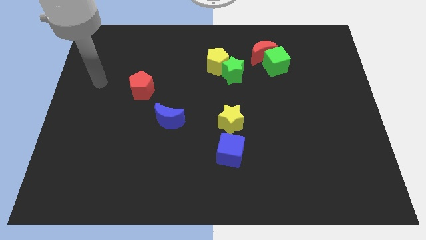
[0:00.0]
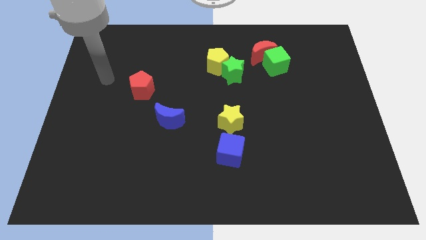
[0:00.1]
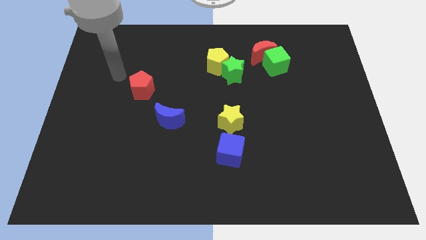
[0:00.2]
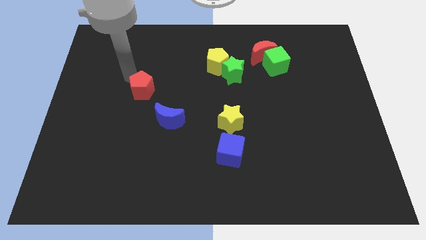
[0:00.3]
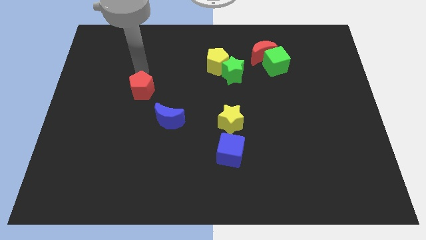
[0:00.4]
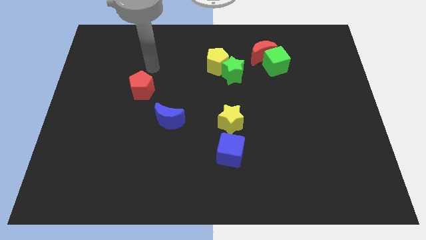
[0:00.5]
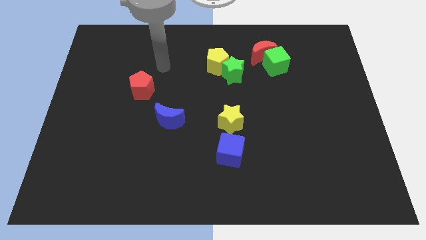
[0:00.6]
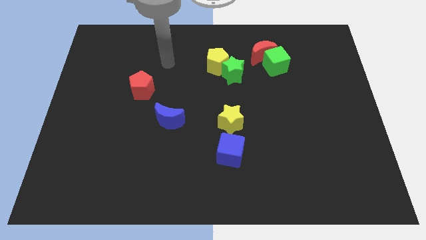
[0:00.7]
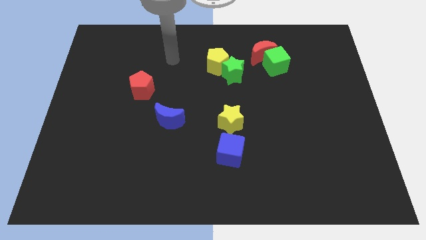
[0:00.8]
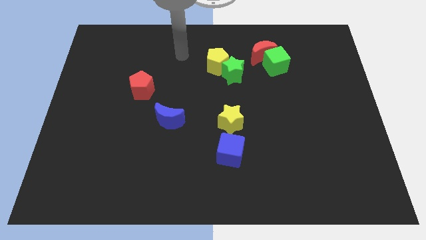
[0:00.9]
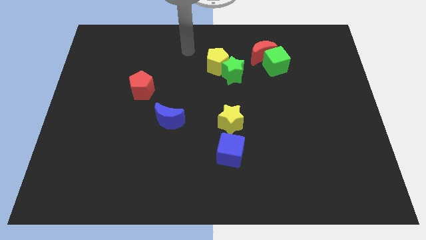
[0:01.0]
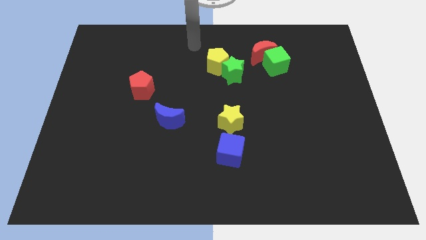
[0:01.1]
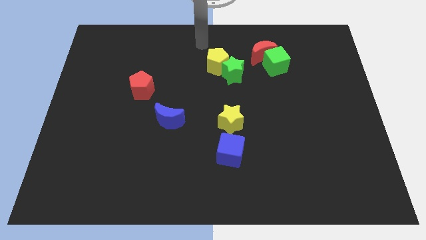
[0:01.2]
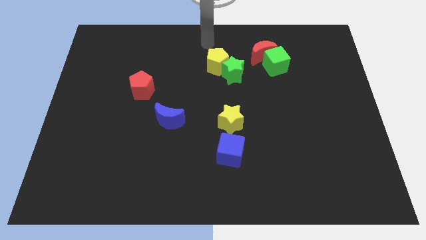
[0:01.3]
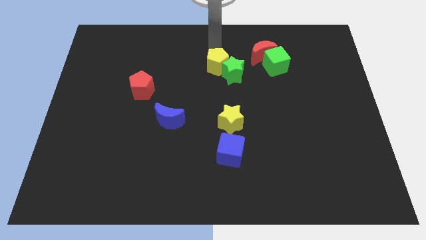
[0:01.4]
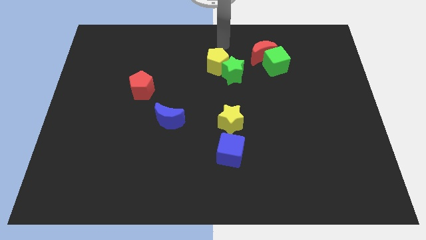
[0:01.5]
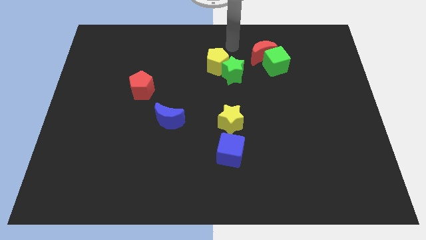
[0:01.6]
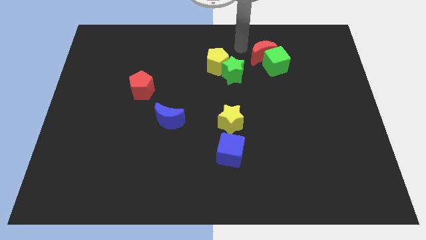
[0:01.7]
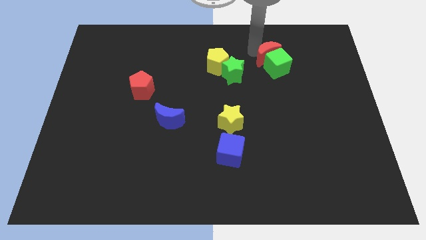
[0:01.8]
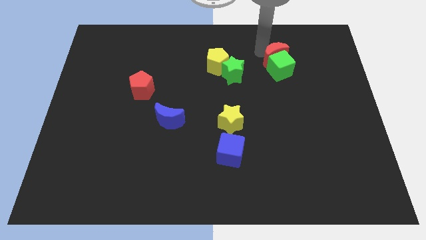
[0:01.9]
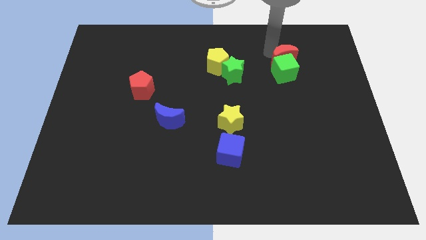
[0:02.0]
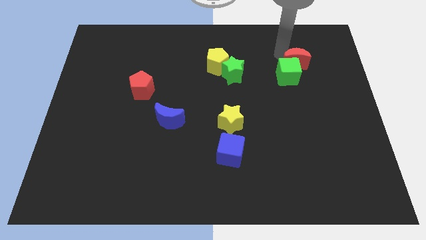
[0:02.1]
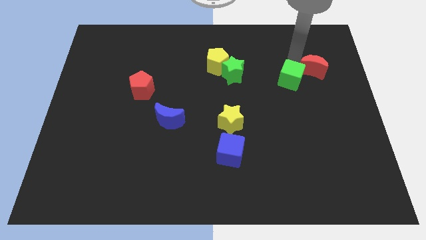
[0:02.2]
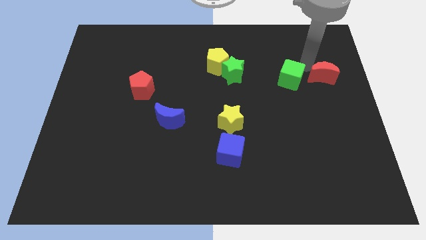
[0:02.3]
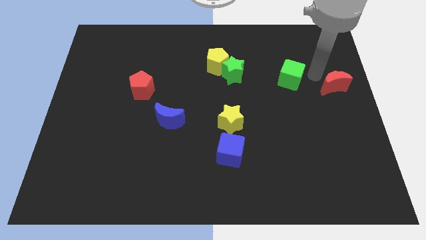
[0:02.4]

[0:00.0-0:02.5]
move the green cube away from the red moon

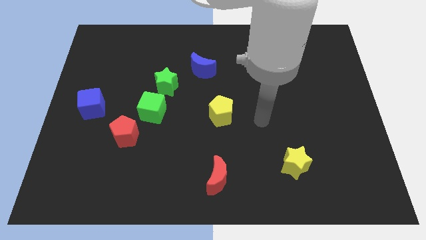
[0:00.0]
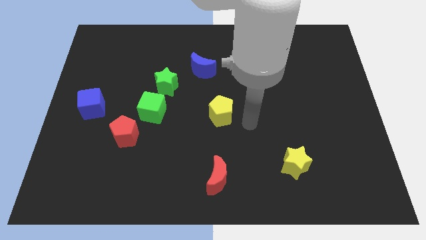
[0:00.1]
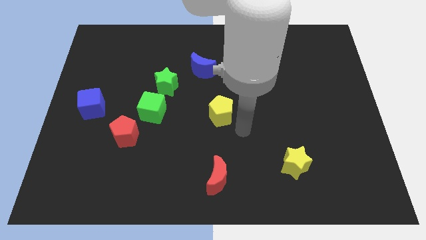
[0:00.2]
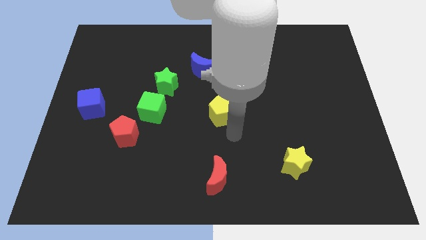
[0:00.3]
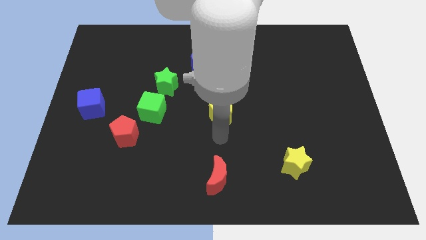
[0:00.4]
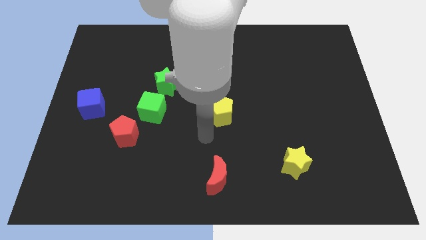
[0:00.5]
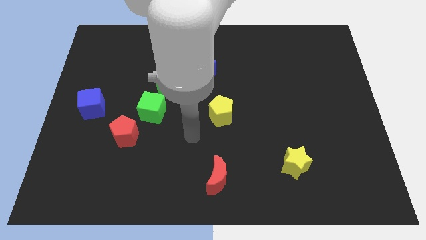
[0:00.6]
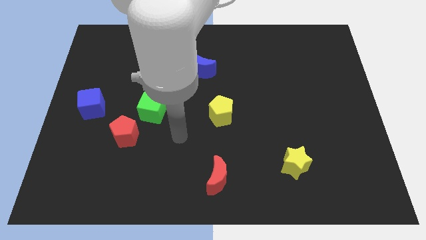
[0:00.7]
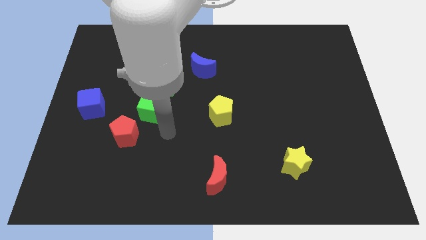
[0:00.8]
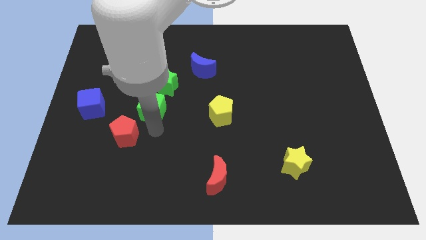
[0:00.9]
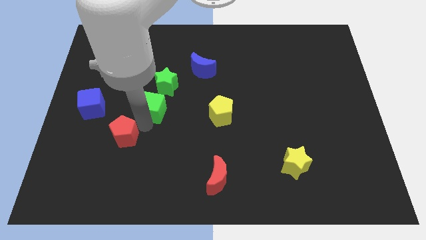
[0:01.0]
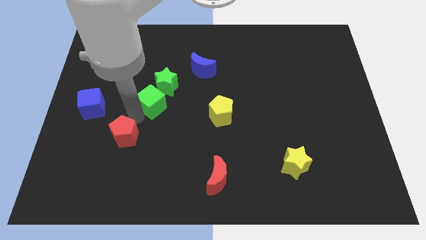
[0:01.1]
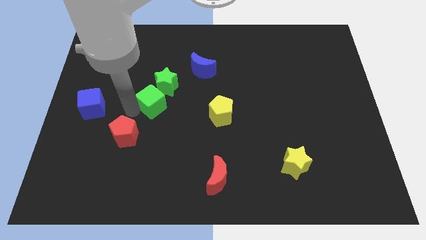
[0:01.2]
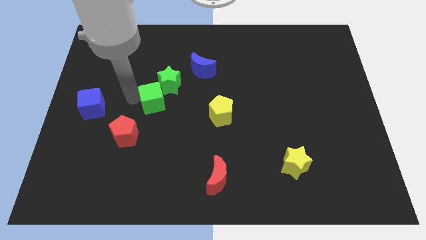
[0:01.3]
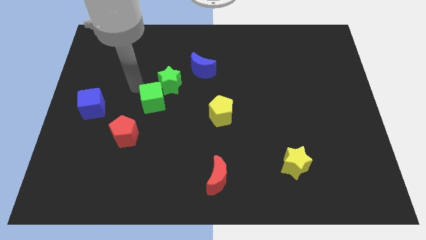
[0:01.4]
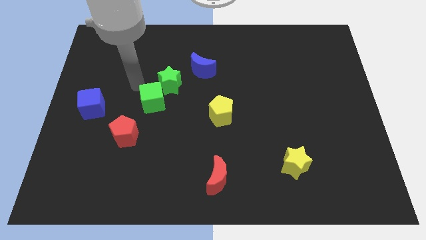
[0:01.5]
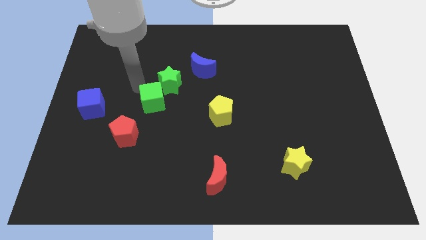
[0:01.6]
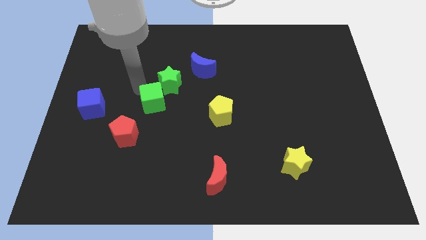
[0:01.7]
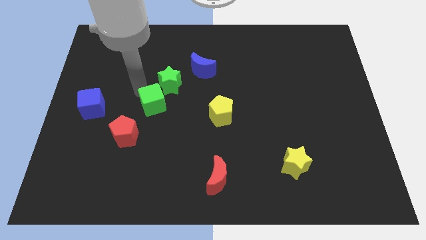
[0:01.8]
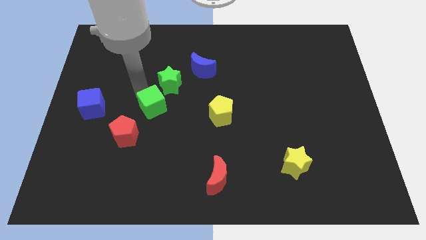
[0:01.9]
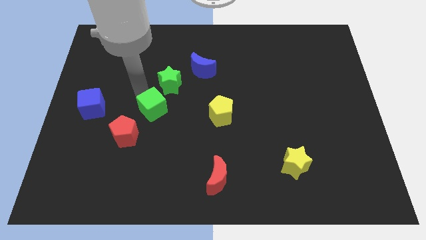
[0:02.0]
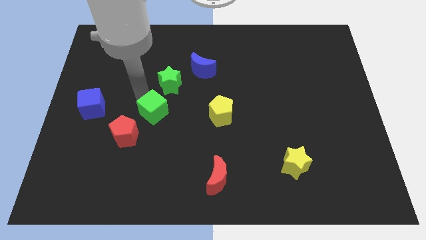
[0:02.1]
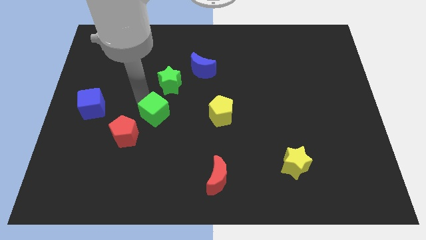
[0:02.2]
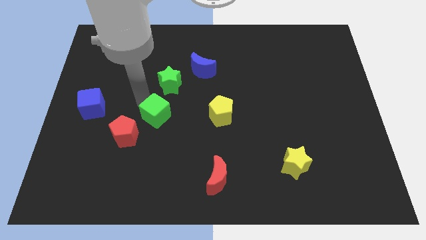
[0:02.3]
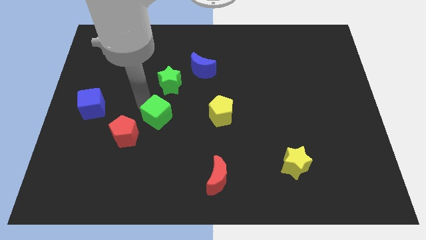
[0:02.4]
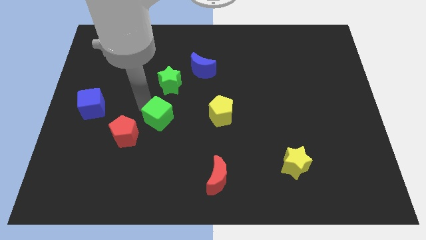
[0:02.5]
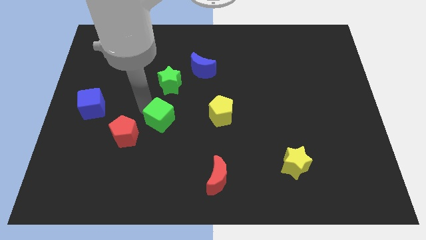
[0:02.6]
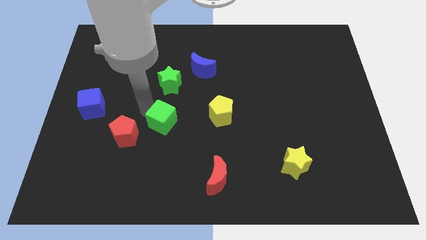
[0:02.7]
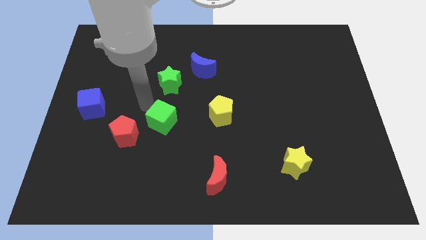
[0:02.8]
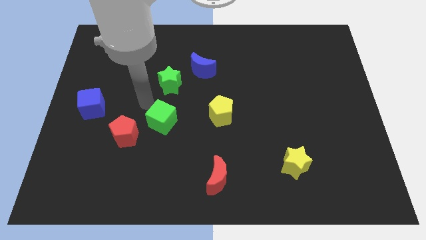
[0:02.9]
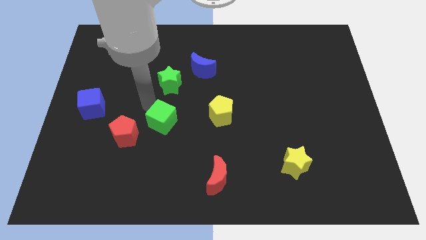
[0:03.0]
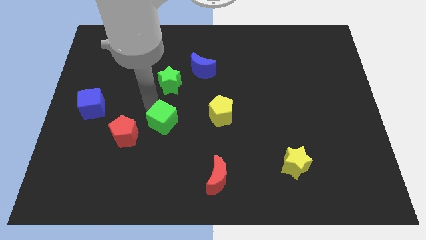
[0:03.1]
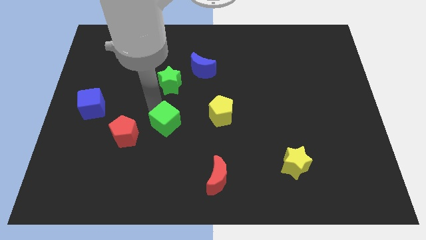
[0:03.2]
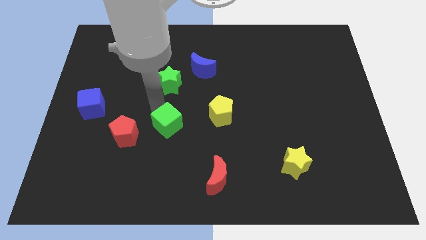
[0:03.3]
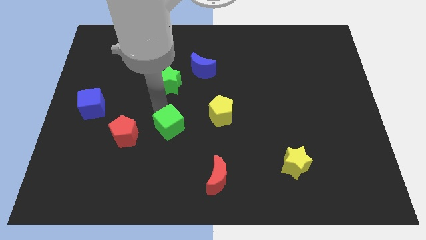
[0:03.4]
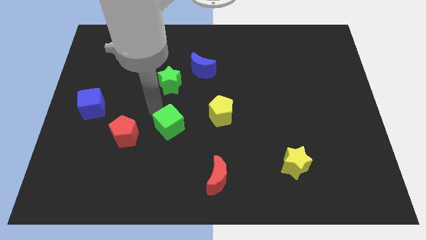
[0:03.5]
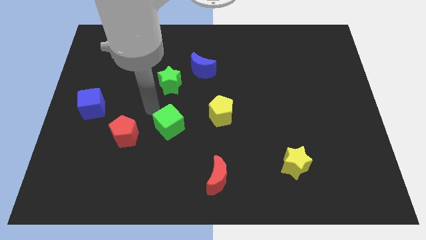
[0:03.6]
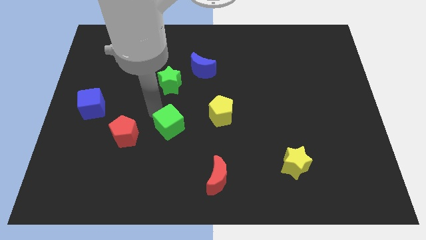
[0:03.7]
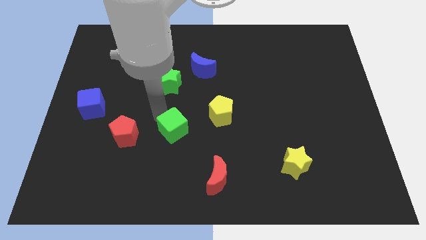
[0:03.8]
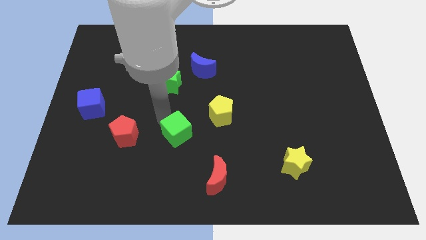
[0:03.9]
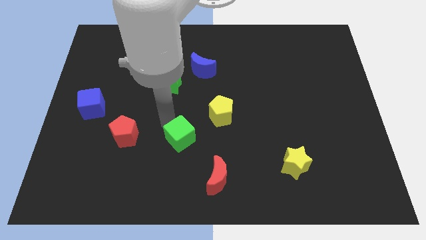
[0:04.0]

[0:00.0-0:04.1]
pull the green cube apart from the green star and red pentagon

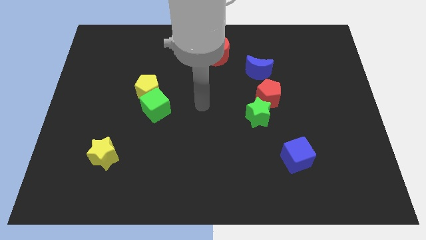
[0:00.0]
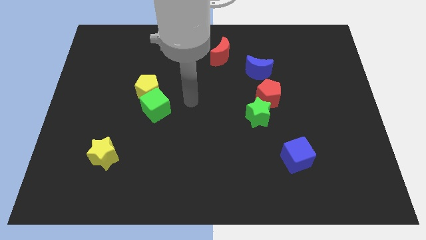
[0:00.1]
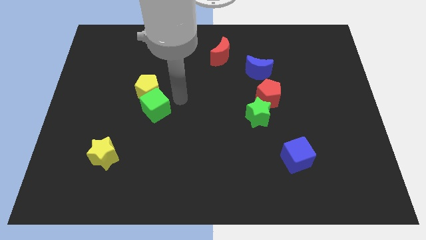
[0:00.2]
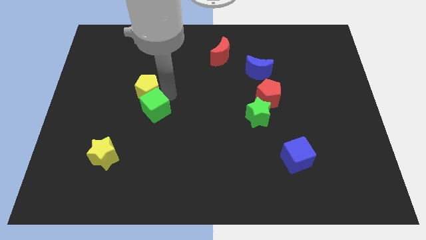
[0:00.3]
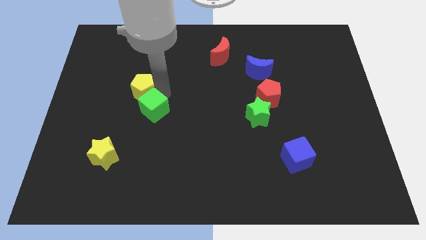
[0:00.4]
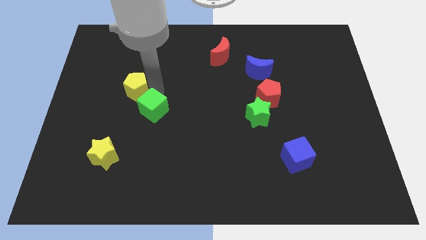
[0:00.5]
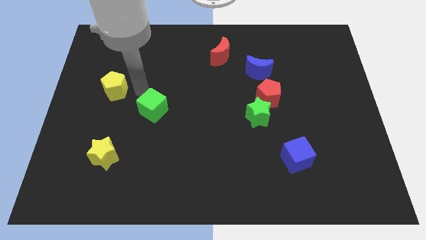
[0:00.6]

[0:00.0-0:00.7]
move the green cube away from the yellow pentagon

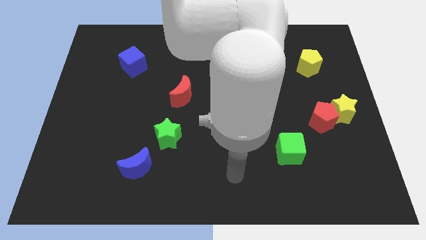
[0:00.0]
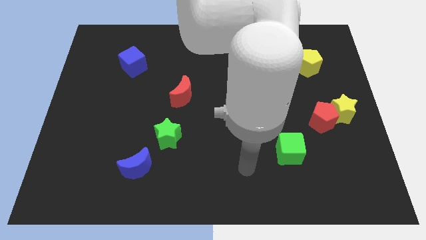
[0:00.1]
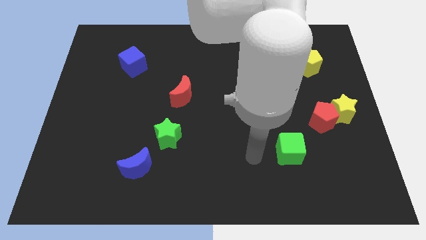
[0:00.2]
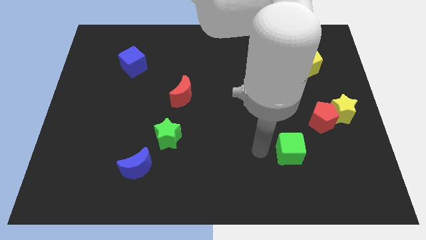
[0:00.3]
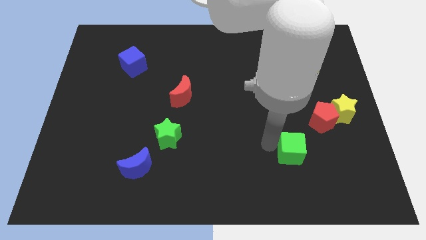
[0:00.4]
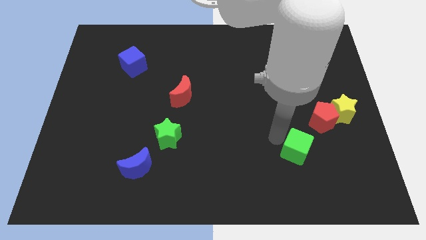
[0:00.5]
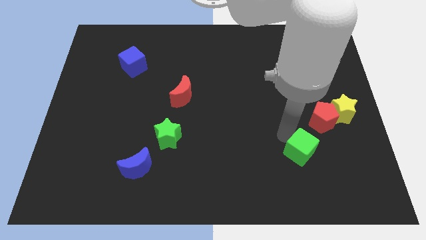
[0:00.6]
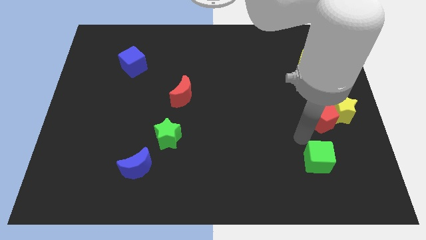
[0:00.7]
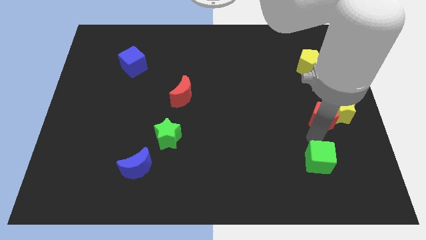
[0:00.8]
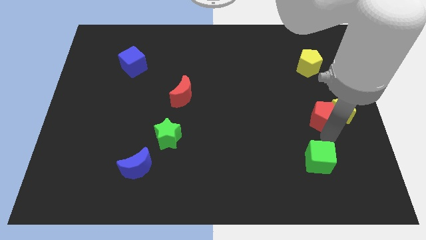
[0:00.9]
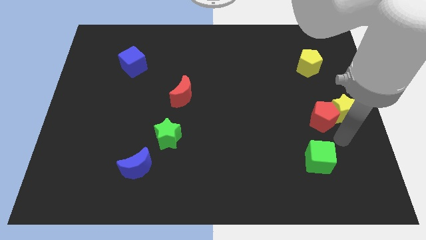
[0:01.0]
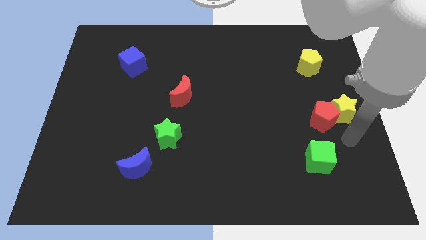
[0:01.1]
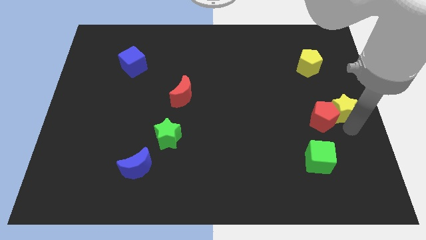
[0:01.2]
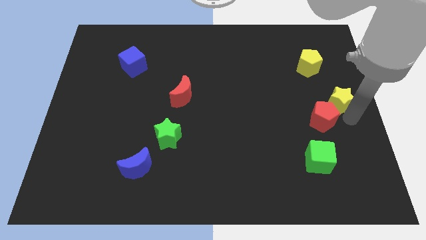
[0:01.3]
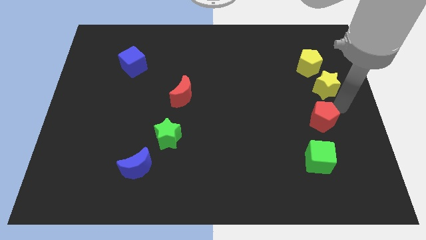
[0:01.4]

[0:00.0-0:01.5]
move the red pentagon away from the yellow star

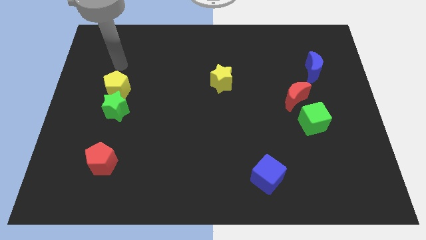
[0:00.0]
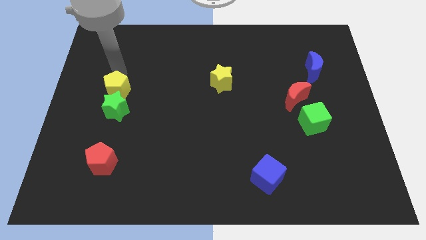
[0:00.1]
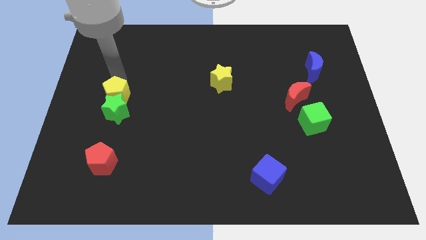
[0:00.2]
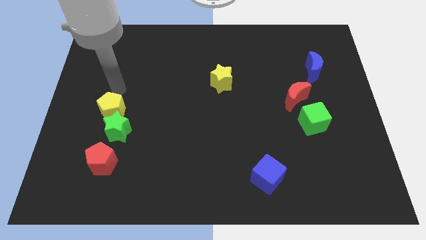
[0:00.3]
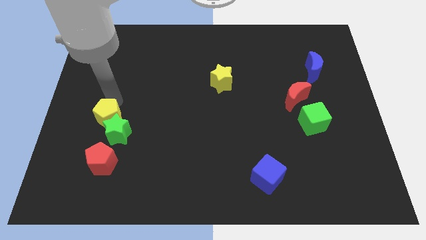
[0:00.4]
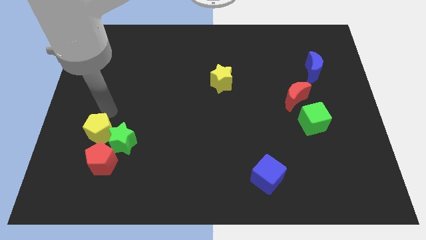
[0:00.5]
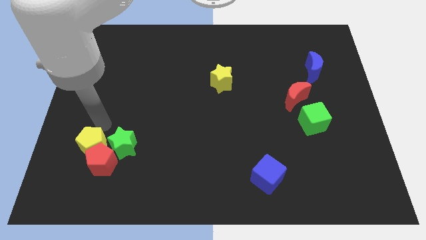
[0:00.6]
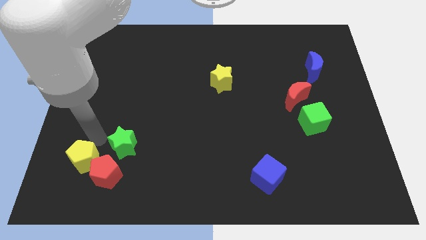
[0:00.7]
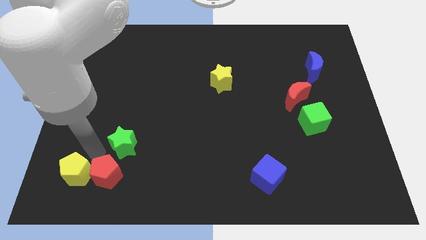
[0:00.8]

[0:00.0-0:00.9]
separate the green star from the yellow pentagon
